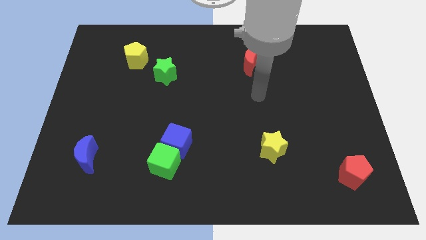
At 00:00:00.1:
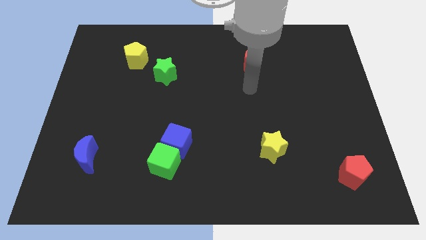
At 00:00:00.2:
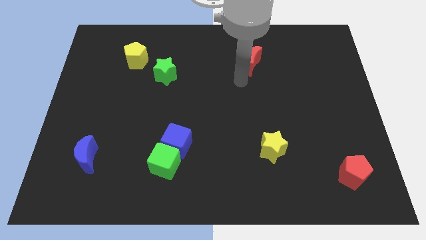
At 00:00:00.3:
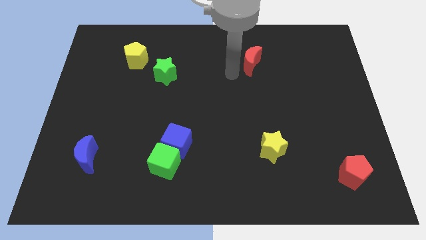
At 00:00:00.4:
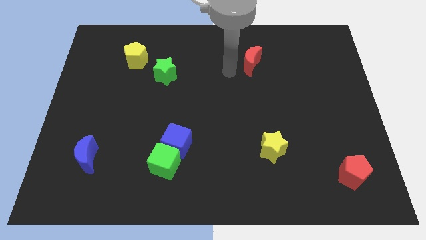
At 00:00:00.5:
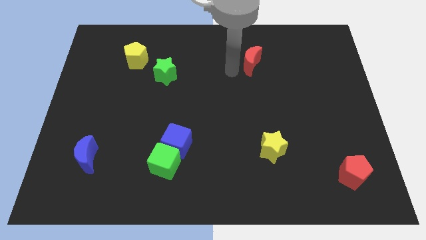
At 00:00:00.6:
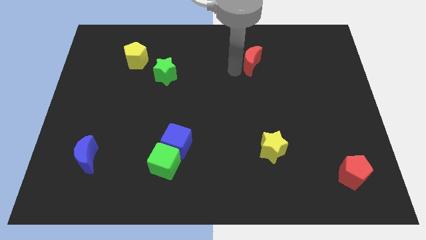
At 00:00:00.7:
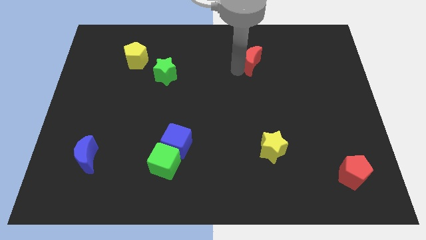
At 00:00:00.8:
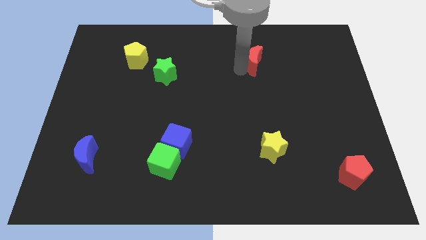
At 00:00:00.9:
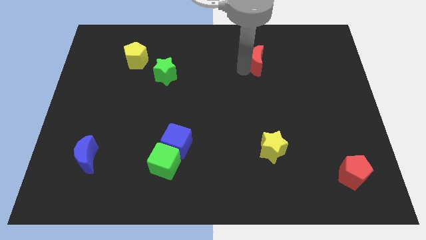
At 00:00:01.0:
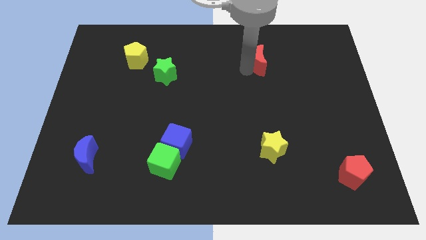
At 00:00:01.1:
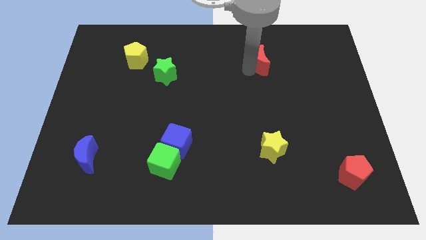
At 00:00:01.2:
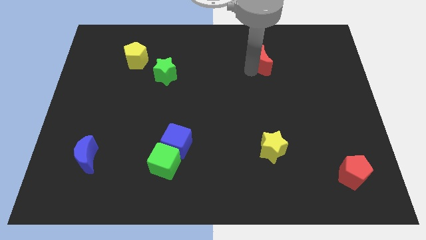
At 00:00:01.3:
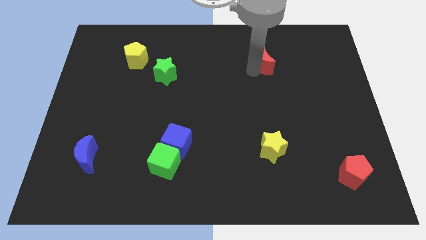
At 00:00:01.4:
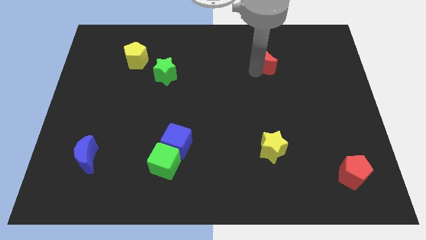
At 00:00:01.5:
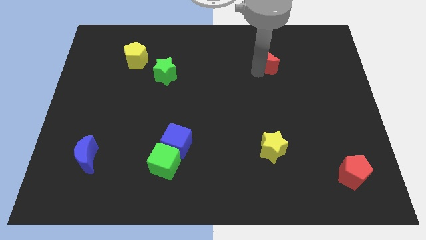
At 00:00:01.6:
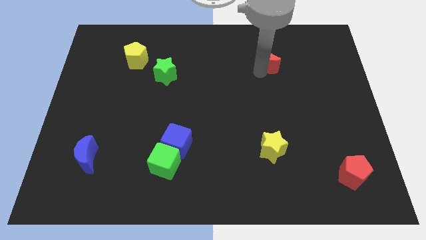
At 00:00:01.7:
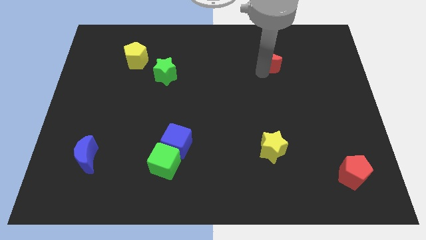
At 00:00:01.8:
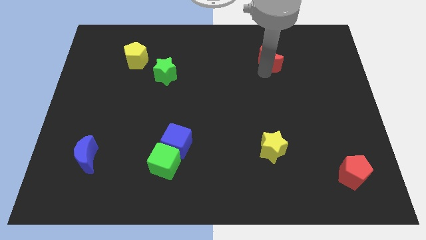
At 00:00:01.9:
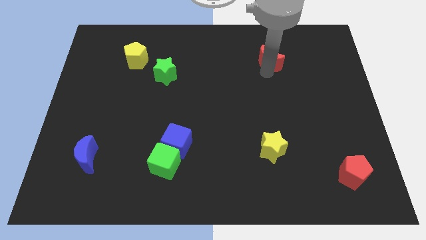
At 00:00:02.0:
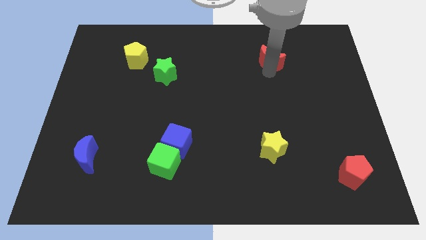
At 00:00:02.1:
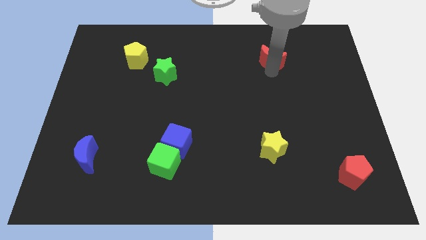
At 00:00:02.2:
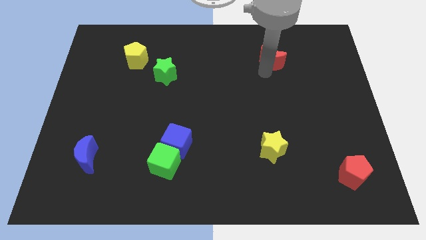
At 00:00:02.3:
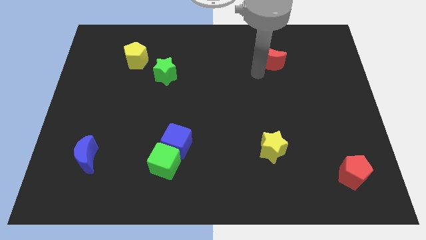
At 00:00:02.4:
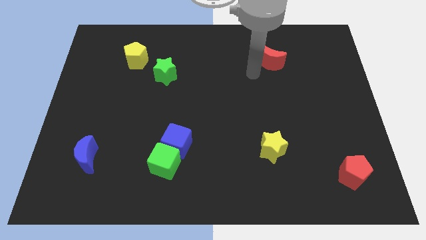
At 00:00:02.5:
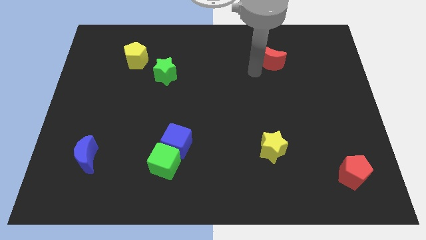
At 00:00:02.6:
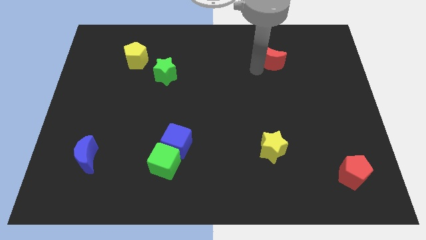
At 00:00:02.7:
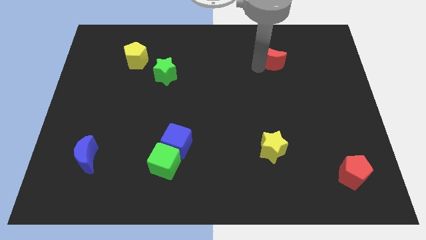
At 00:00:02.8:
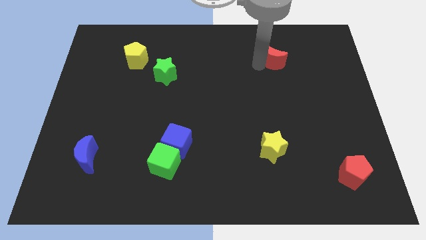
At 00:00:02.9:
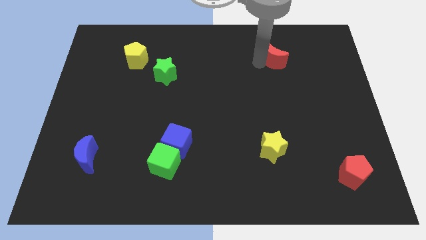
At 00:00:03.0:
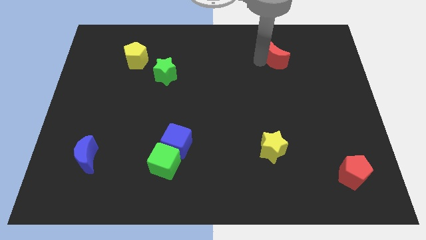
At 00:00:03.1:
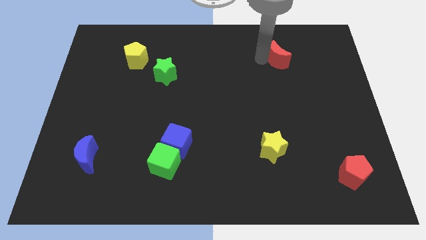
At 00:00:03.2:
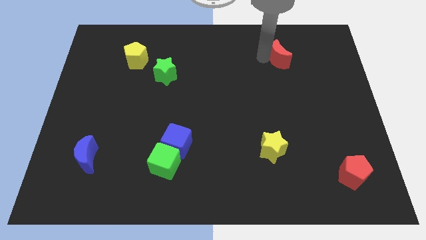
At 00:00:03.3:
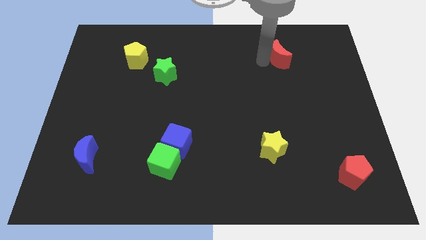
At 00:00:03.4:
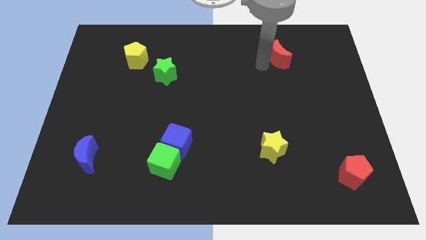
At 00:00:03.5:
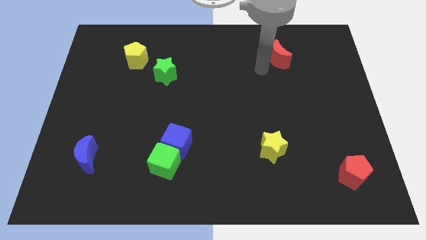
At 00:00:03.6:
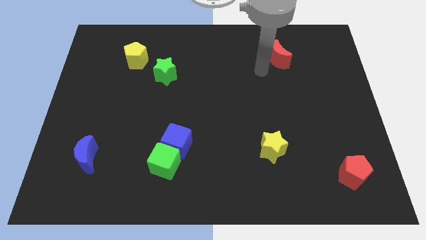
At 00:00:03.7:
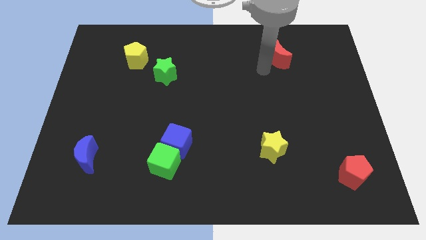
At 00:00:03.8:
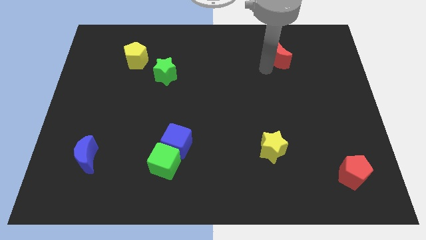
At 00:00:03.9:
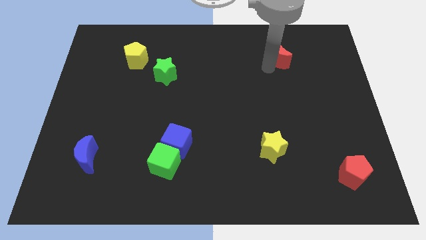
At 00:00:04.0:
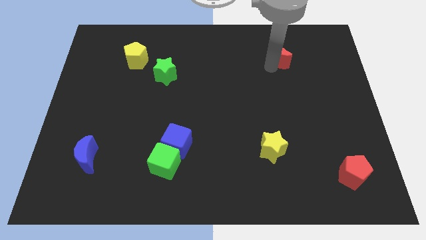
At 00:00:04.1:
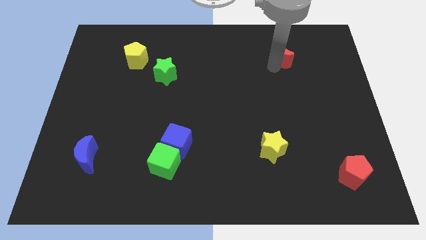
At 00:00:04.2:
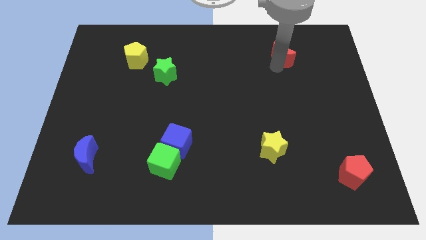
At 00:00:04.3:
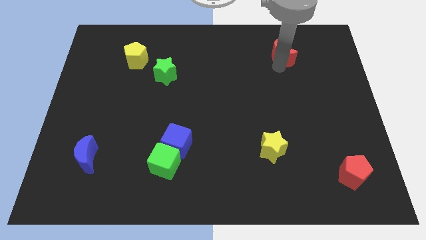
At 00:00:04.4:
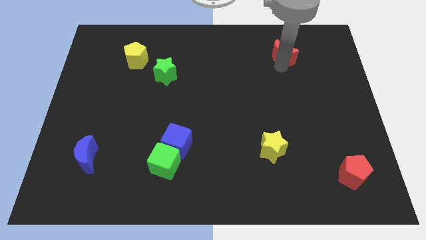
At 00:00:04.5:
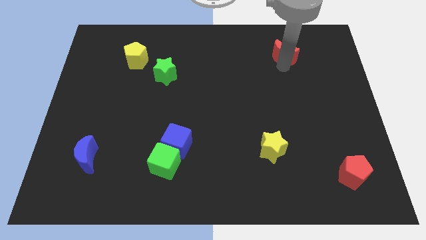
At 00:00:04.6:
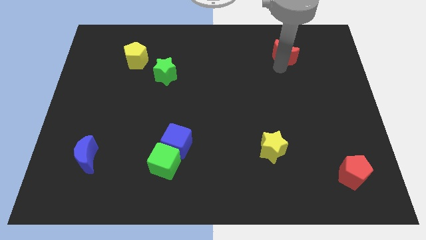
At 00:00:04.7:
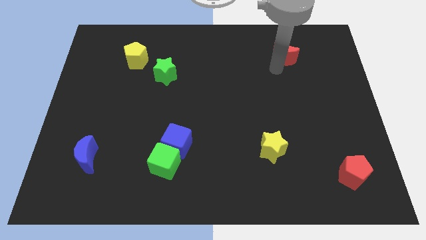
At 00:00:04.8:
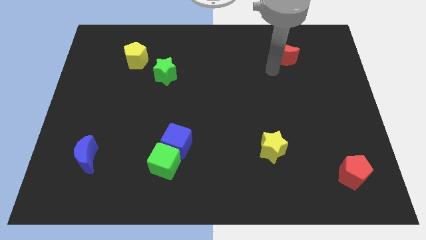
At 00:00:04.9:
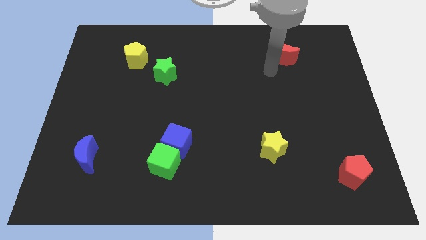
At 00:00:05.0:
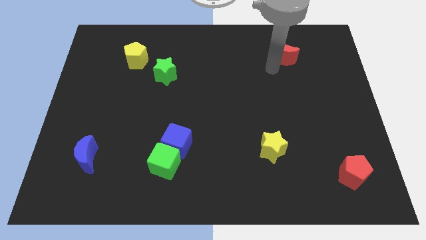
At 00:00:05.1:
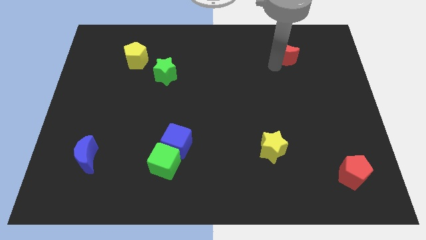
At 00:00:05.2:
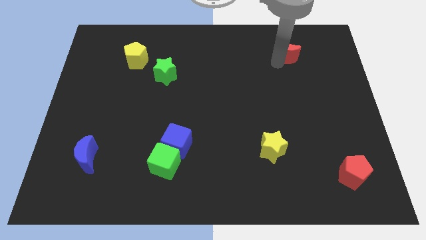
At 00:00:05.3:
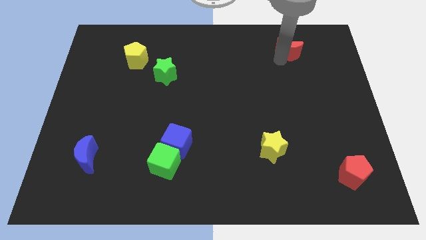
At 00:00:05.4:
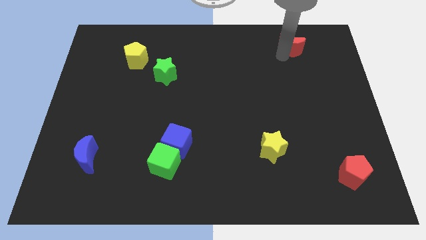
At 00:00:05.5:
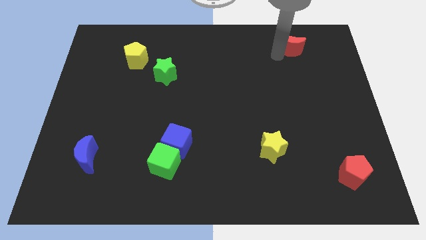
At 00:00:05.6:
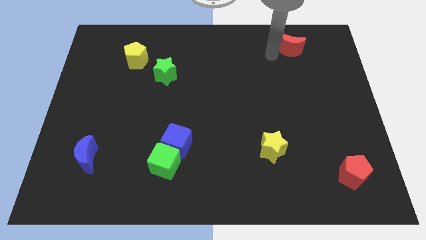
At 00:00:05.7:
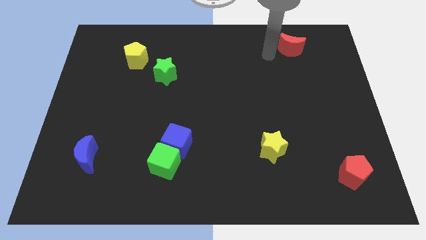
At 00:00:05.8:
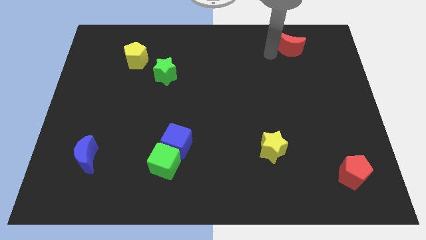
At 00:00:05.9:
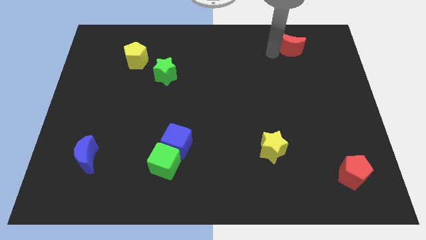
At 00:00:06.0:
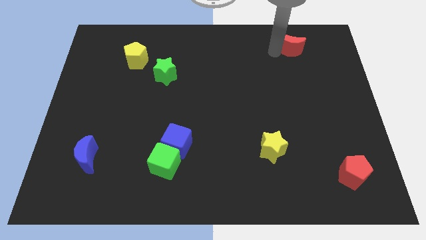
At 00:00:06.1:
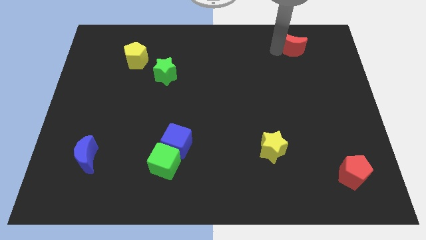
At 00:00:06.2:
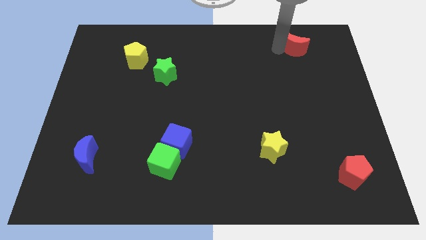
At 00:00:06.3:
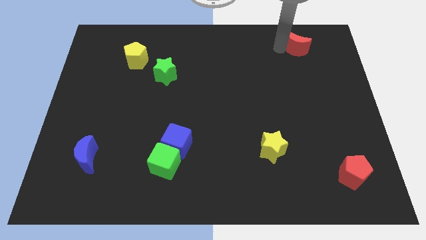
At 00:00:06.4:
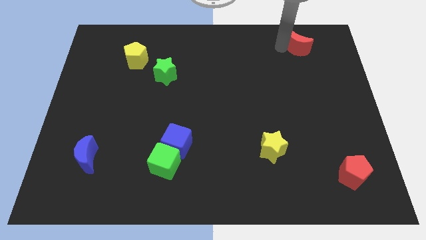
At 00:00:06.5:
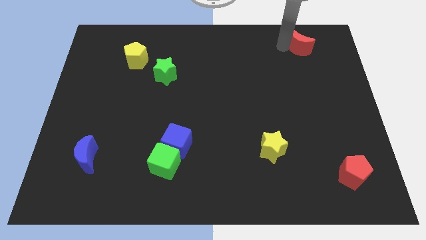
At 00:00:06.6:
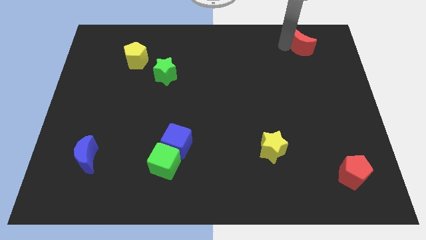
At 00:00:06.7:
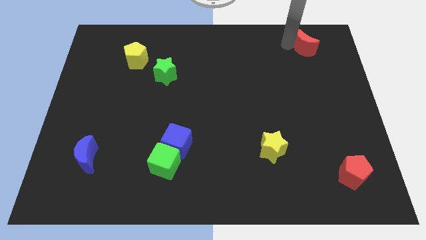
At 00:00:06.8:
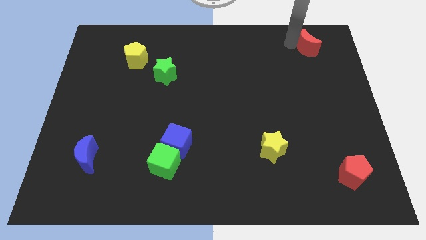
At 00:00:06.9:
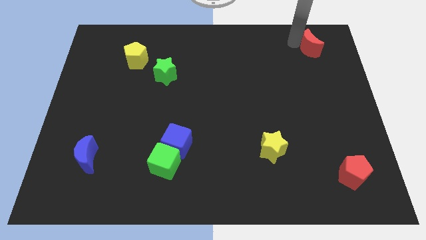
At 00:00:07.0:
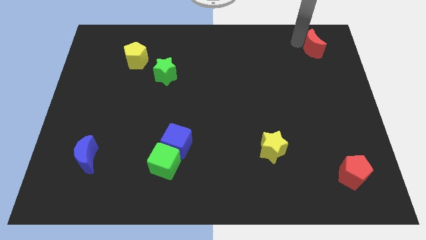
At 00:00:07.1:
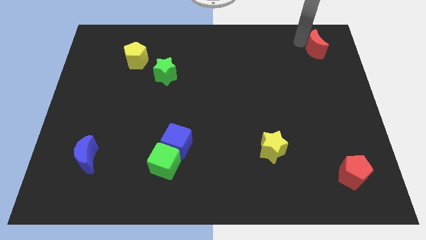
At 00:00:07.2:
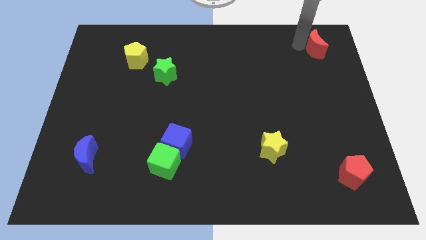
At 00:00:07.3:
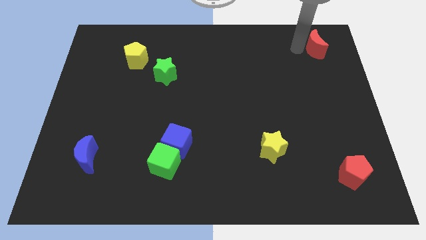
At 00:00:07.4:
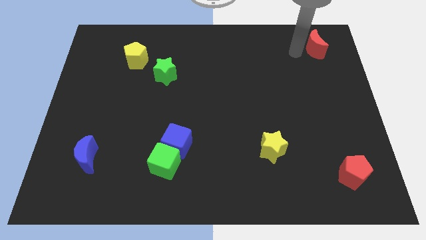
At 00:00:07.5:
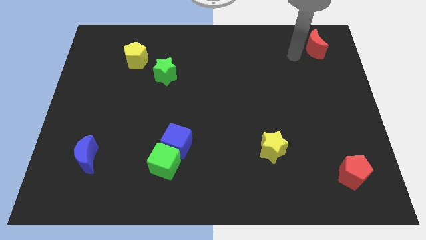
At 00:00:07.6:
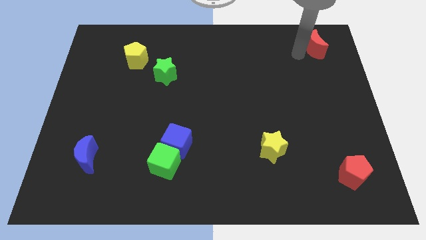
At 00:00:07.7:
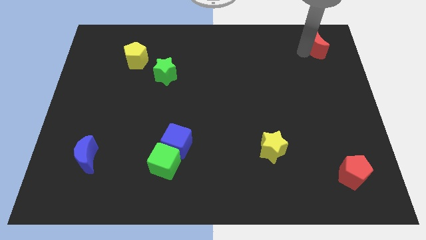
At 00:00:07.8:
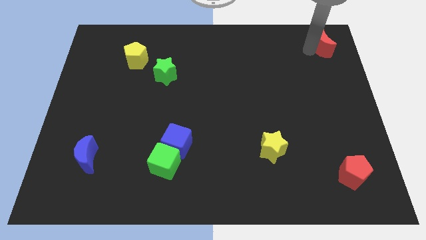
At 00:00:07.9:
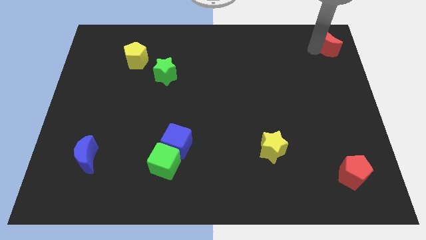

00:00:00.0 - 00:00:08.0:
slide the red moon to the upper right corner
